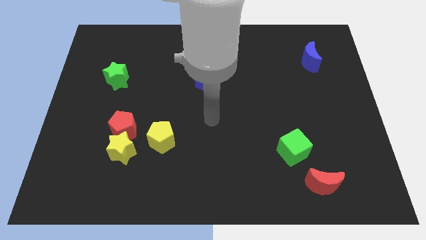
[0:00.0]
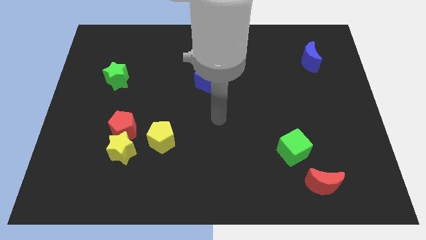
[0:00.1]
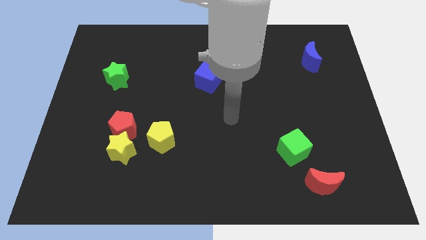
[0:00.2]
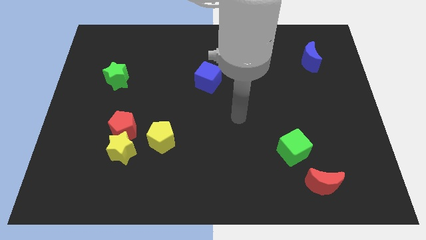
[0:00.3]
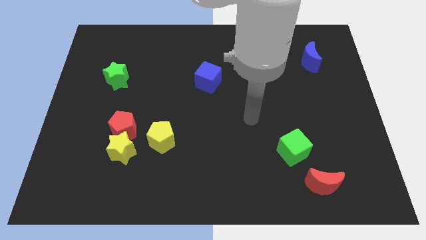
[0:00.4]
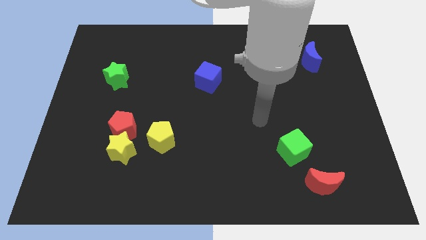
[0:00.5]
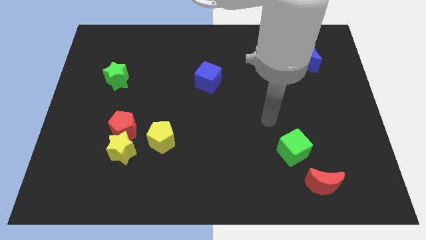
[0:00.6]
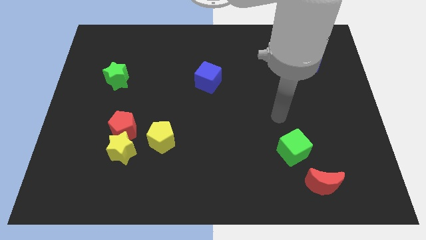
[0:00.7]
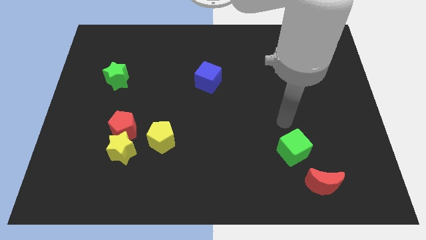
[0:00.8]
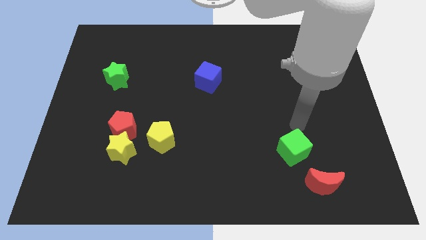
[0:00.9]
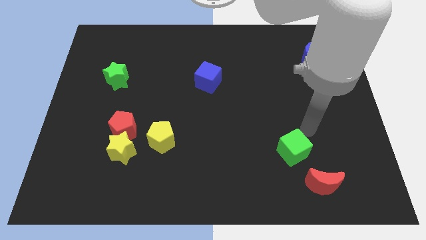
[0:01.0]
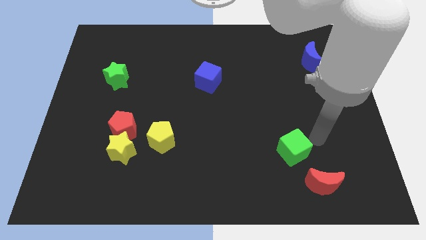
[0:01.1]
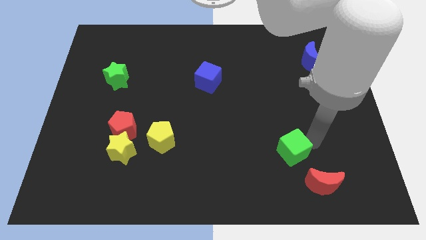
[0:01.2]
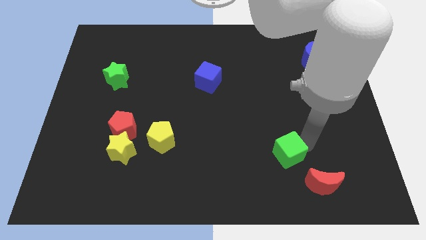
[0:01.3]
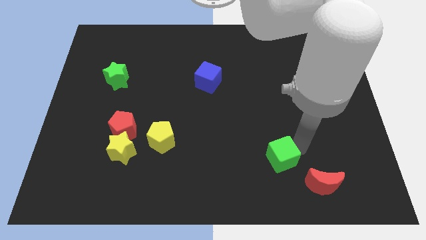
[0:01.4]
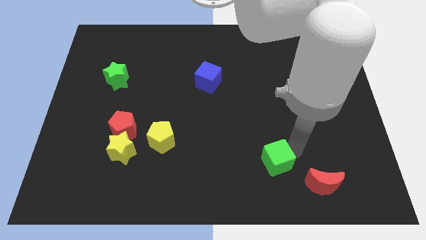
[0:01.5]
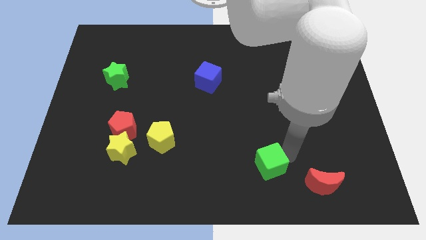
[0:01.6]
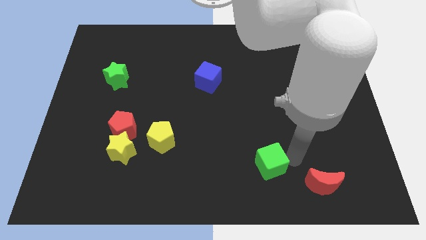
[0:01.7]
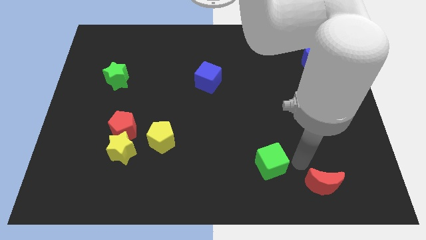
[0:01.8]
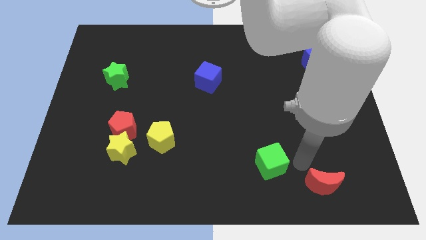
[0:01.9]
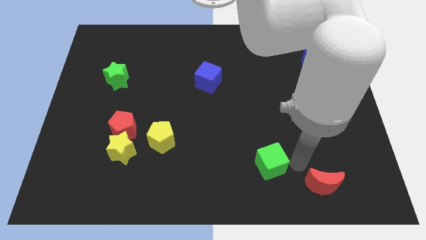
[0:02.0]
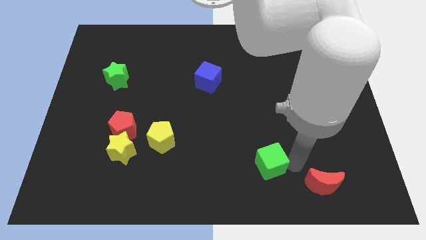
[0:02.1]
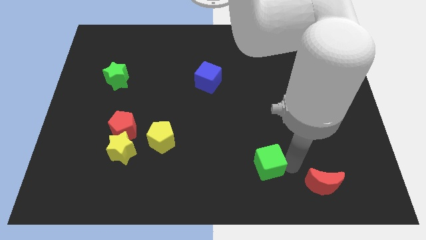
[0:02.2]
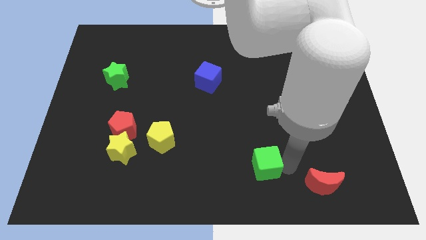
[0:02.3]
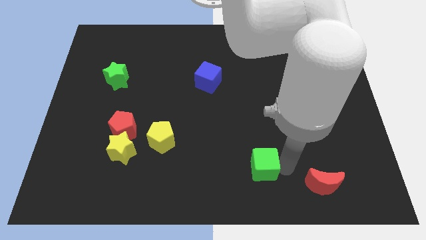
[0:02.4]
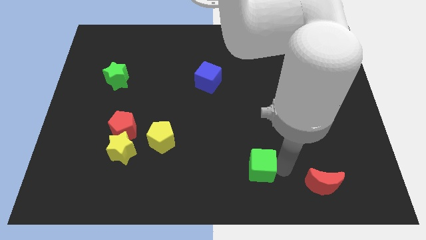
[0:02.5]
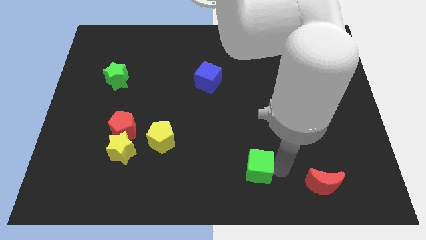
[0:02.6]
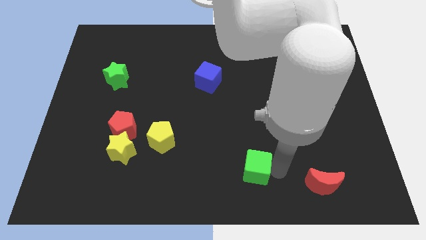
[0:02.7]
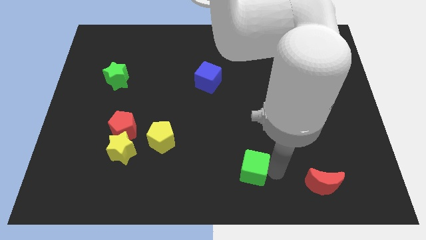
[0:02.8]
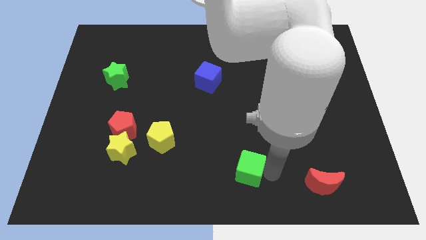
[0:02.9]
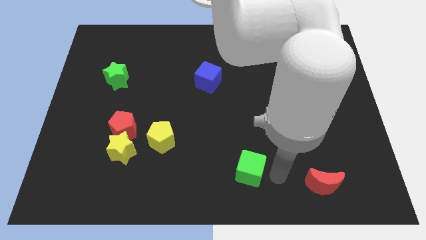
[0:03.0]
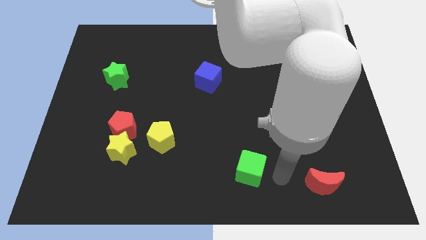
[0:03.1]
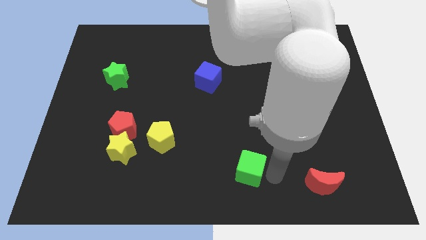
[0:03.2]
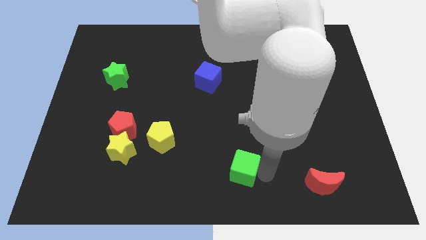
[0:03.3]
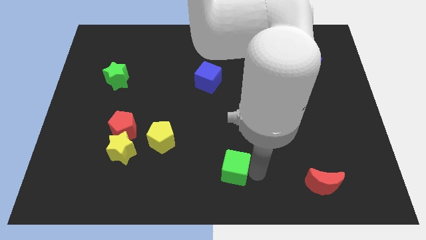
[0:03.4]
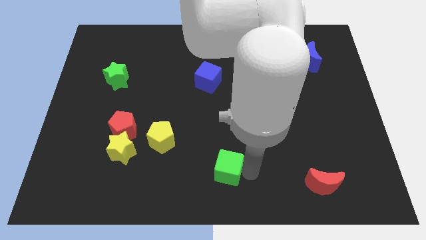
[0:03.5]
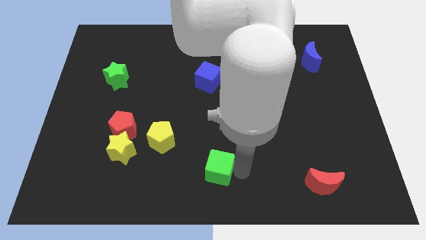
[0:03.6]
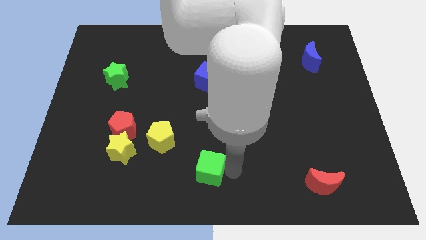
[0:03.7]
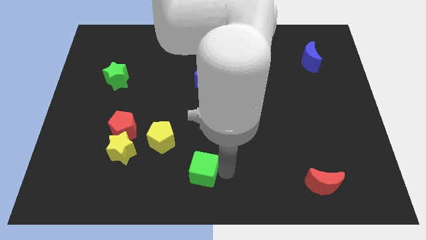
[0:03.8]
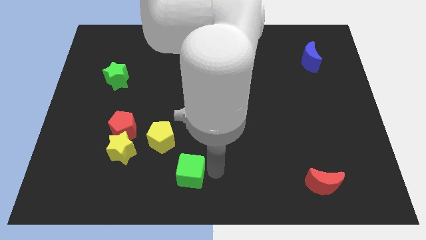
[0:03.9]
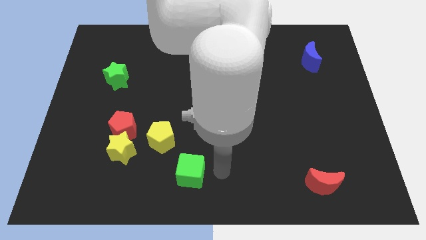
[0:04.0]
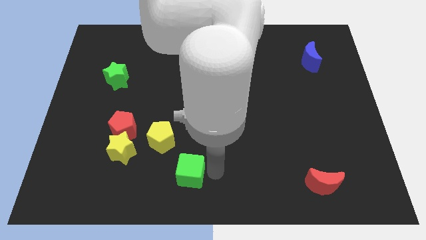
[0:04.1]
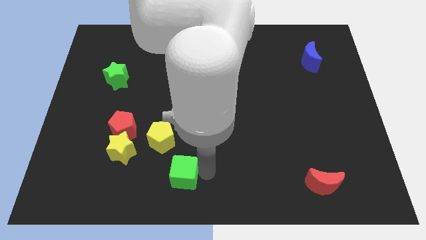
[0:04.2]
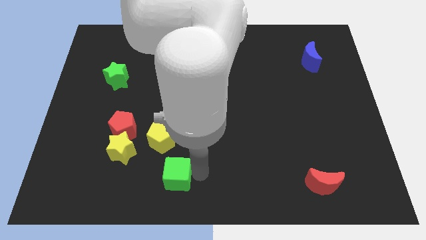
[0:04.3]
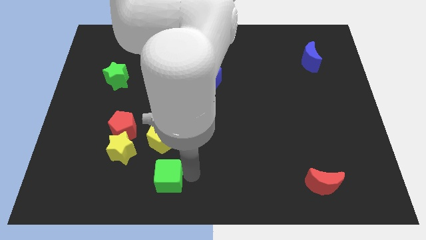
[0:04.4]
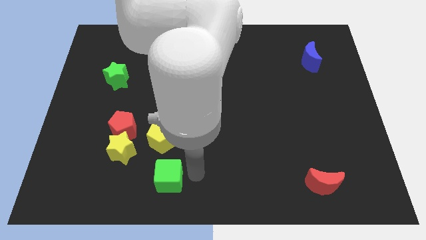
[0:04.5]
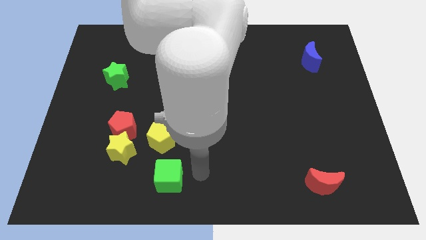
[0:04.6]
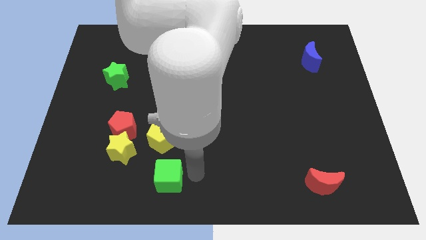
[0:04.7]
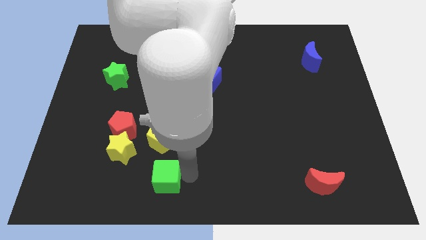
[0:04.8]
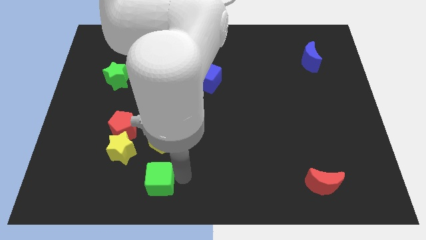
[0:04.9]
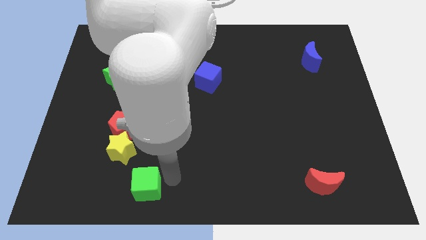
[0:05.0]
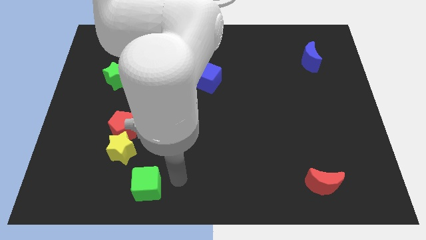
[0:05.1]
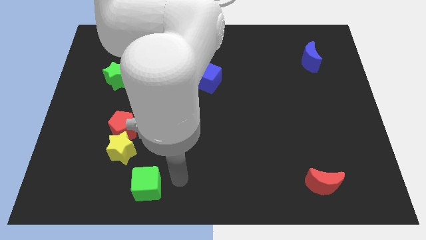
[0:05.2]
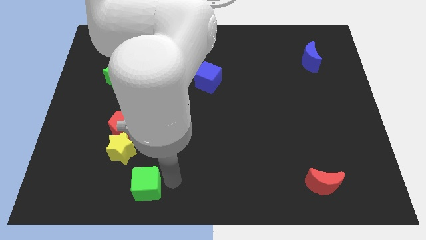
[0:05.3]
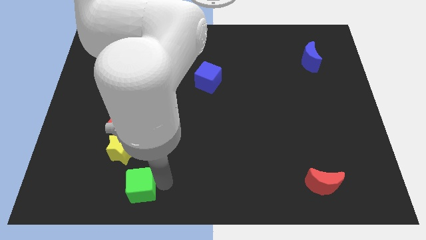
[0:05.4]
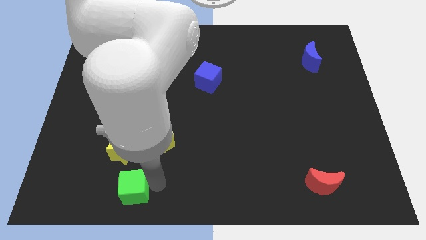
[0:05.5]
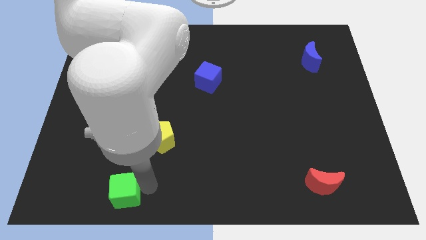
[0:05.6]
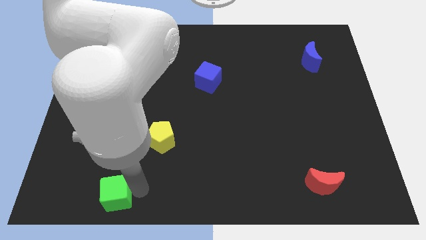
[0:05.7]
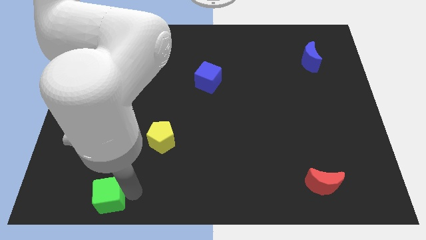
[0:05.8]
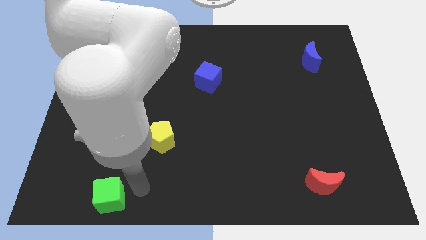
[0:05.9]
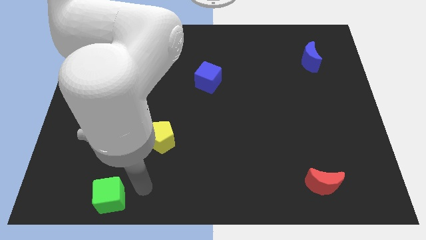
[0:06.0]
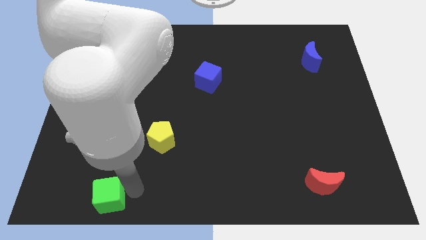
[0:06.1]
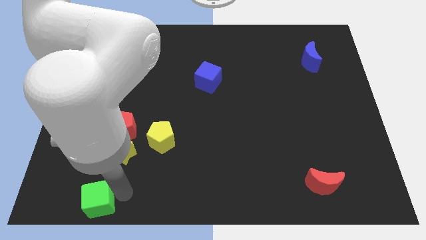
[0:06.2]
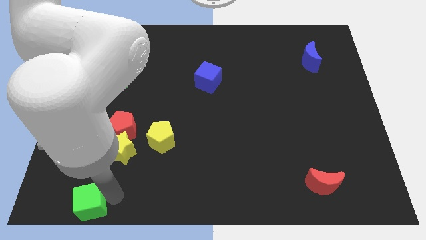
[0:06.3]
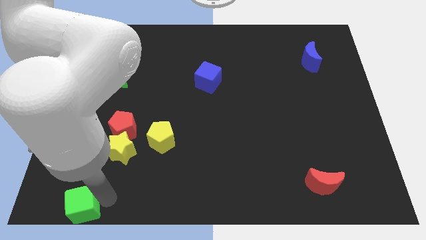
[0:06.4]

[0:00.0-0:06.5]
move the green cube to the lower left corner
